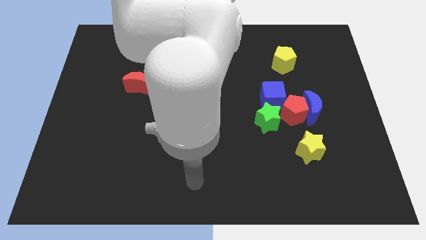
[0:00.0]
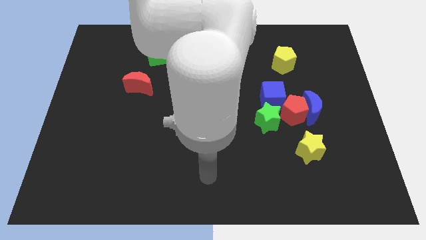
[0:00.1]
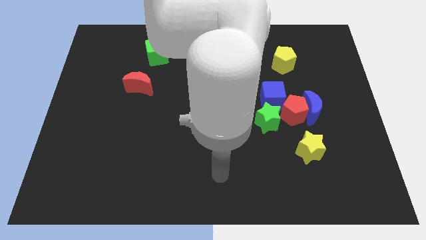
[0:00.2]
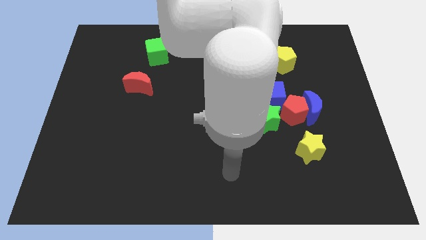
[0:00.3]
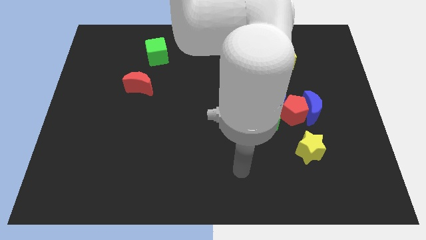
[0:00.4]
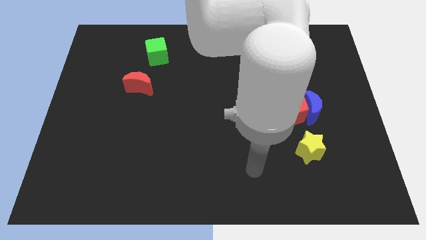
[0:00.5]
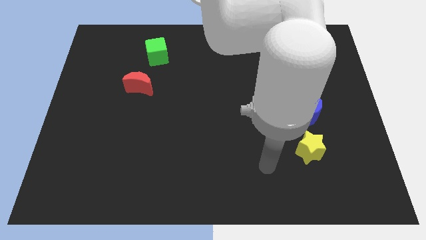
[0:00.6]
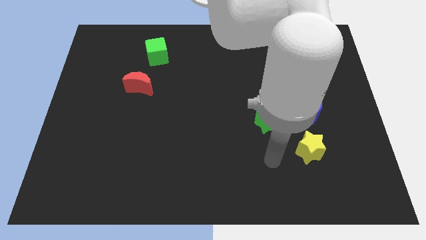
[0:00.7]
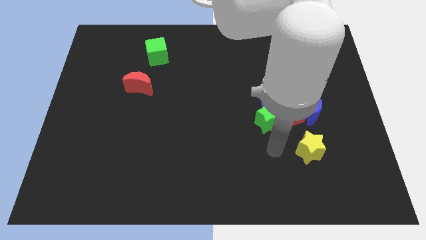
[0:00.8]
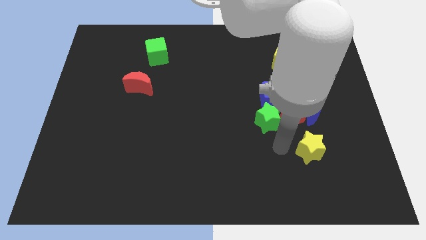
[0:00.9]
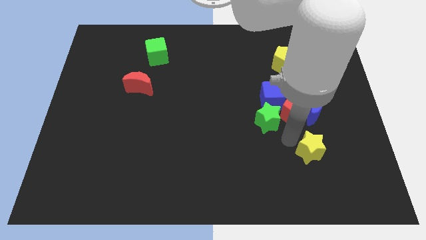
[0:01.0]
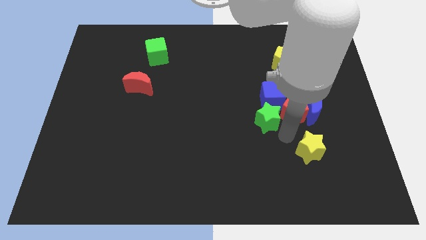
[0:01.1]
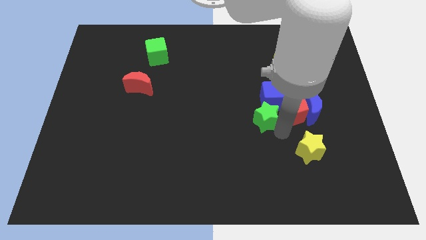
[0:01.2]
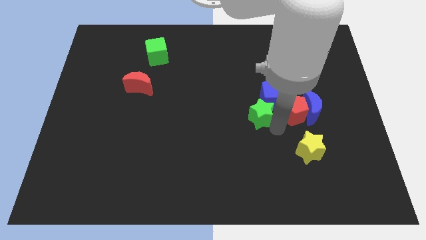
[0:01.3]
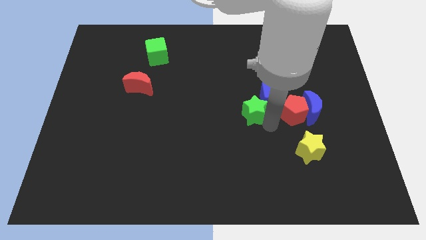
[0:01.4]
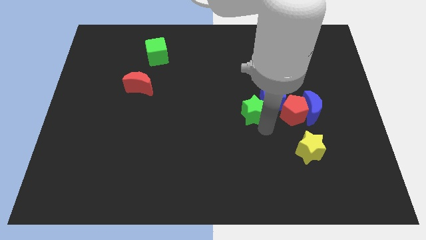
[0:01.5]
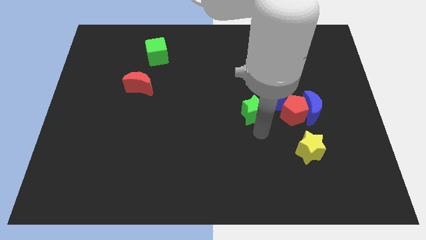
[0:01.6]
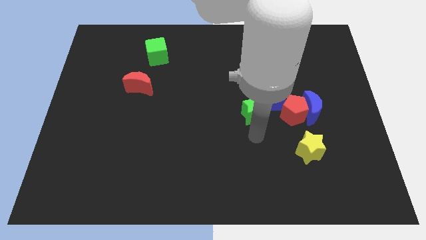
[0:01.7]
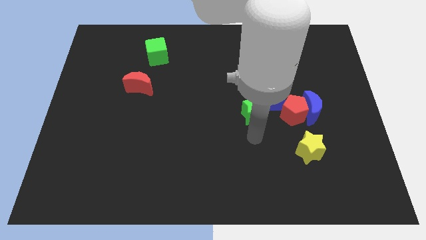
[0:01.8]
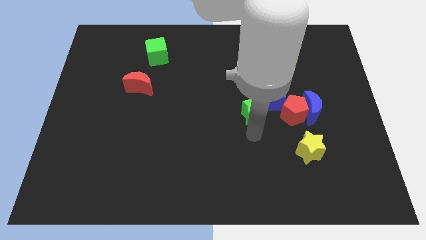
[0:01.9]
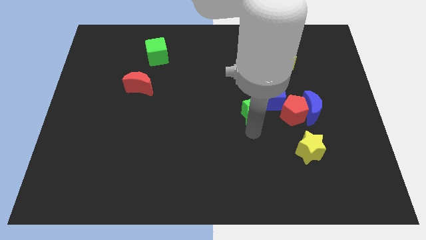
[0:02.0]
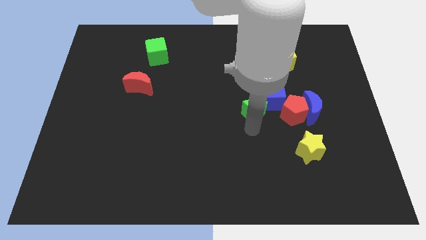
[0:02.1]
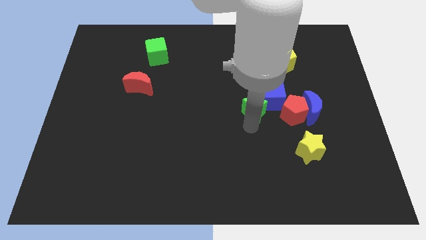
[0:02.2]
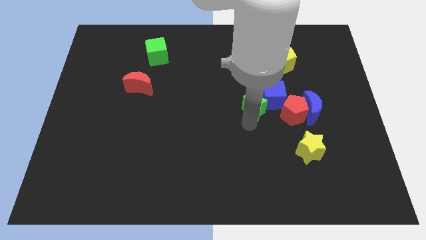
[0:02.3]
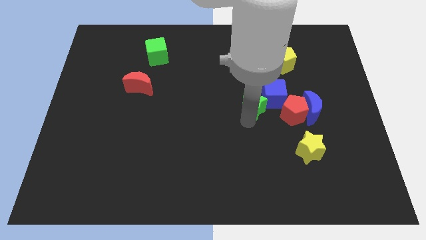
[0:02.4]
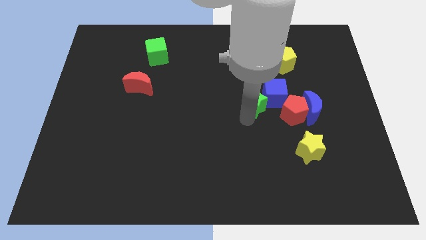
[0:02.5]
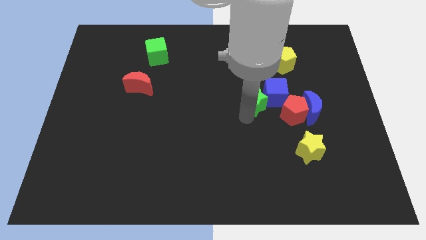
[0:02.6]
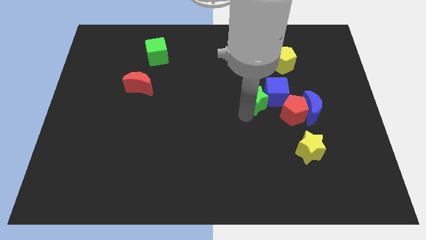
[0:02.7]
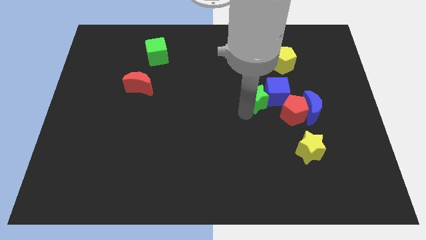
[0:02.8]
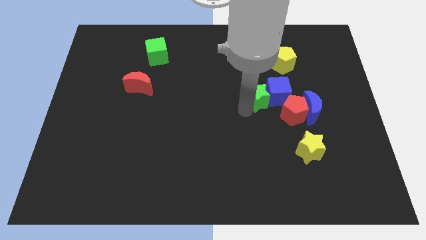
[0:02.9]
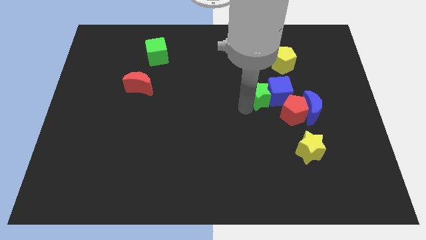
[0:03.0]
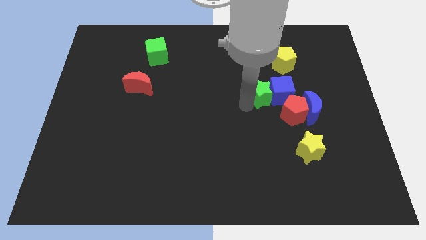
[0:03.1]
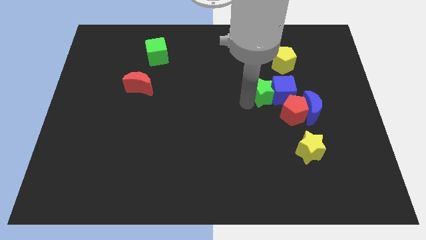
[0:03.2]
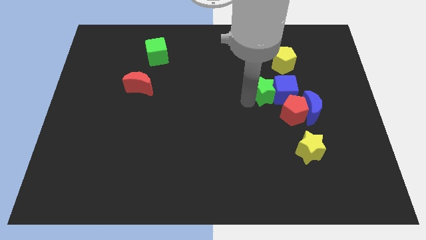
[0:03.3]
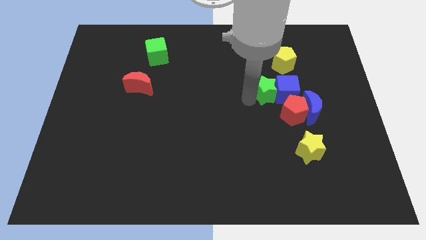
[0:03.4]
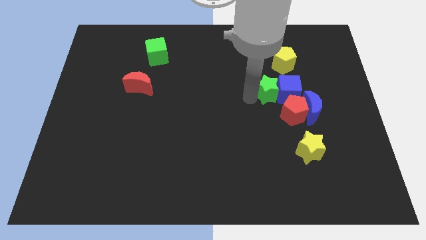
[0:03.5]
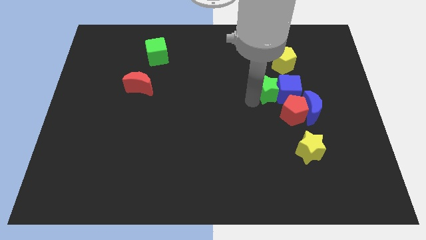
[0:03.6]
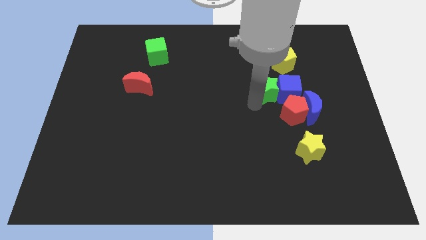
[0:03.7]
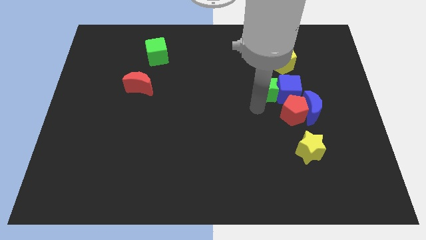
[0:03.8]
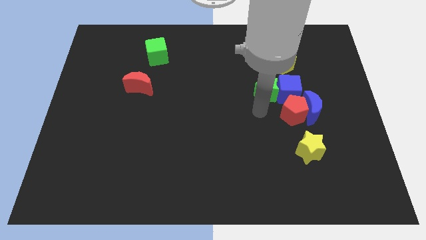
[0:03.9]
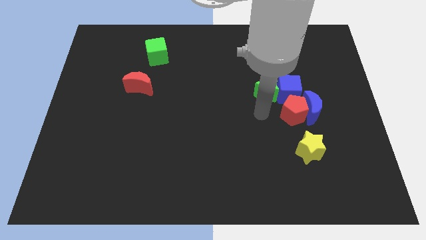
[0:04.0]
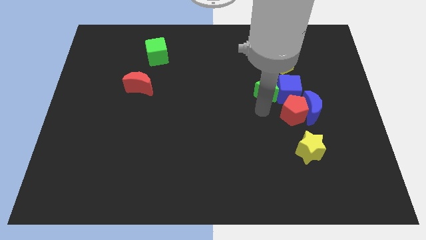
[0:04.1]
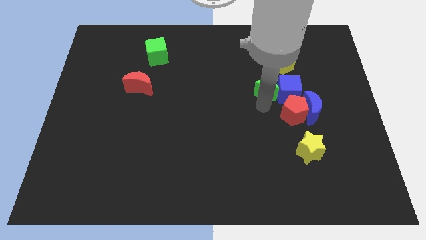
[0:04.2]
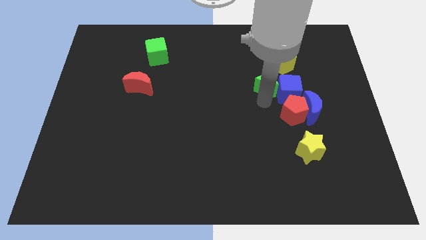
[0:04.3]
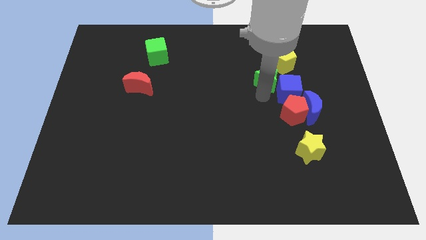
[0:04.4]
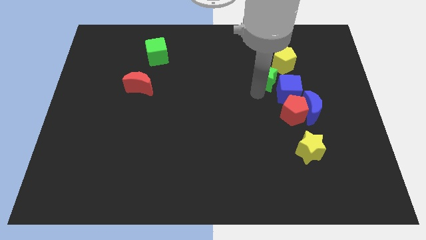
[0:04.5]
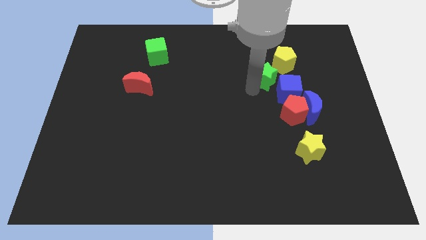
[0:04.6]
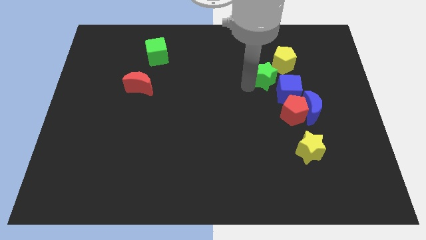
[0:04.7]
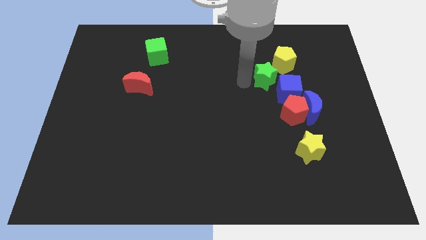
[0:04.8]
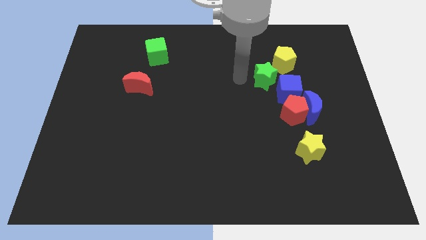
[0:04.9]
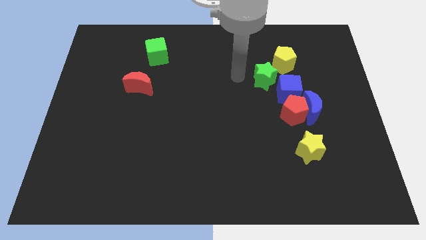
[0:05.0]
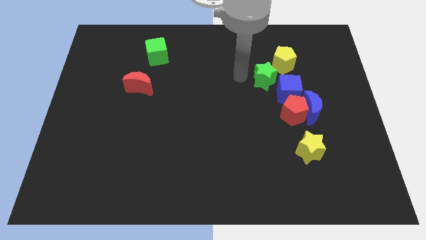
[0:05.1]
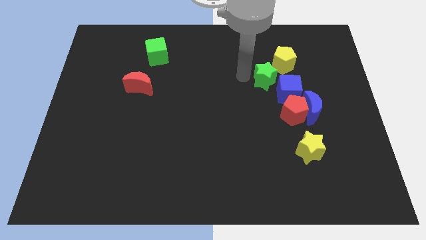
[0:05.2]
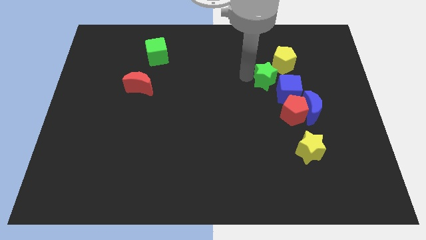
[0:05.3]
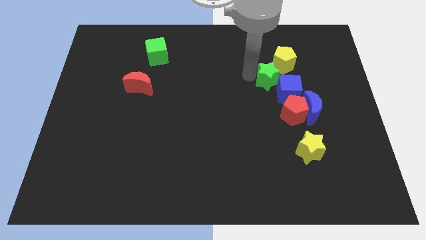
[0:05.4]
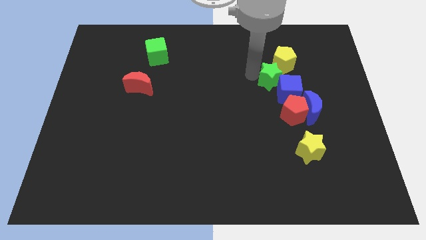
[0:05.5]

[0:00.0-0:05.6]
move the green star a little upwards and right

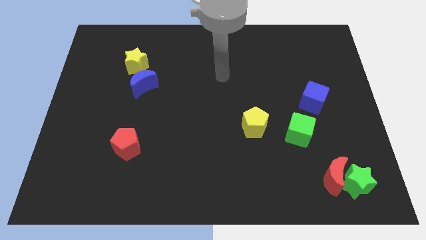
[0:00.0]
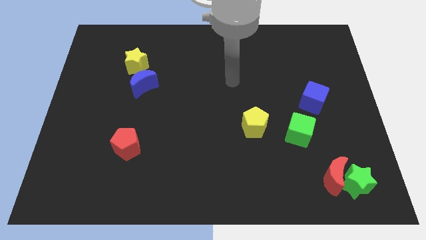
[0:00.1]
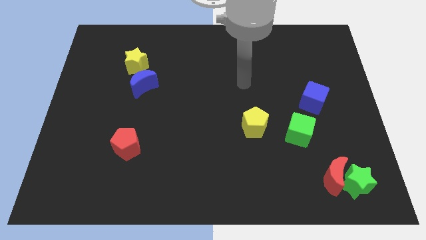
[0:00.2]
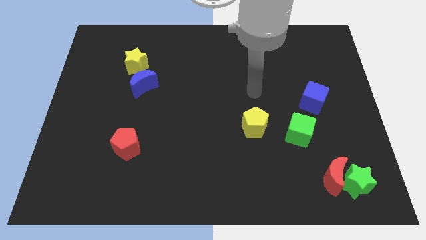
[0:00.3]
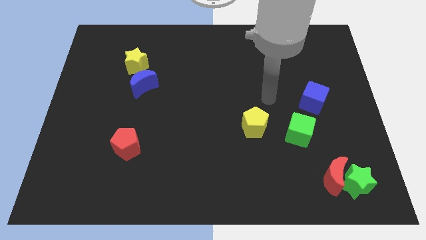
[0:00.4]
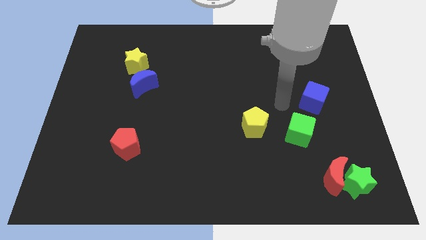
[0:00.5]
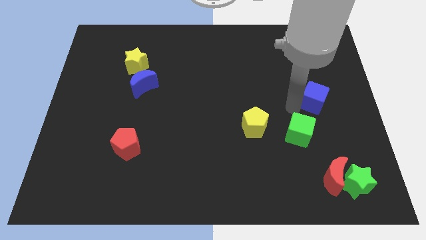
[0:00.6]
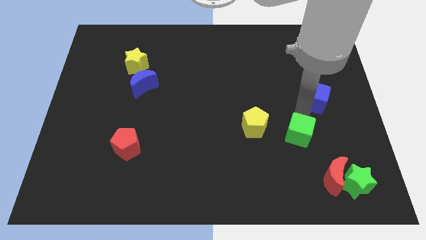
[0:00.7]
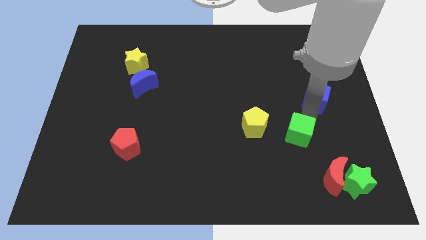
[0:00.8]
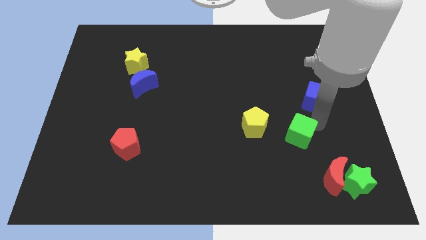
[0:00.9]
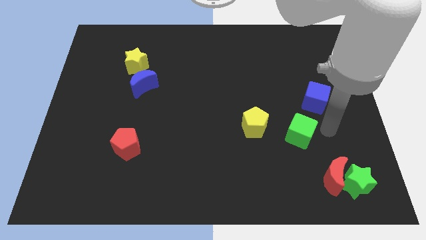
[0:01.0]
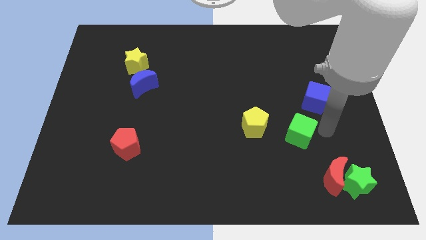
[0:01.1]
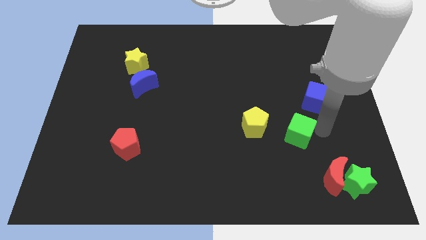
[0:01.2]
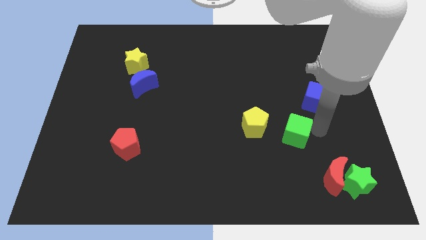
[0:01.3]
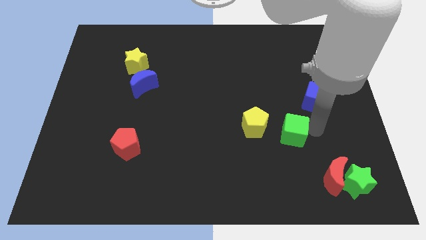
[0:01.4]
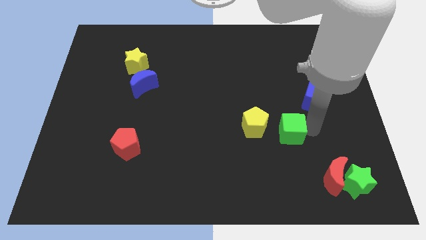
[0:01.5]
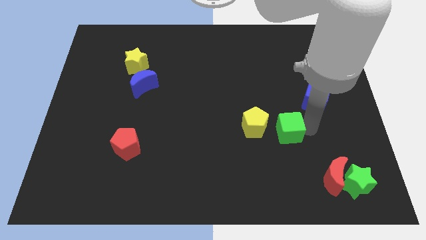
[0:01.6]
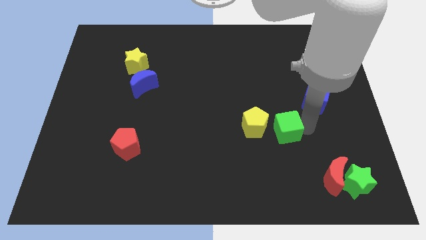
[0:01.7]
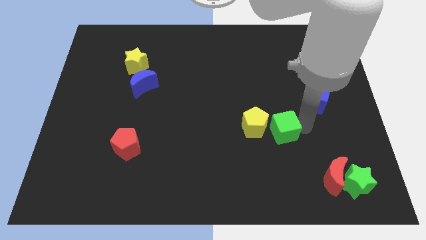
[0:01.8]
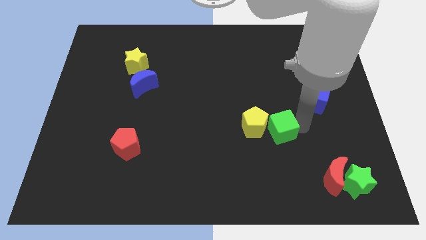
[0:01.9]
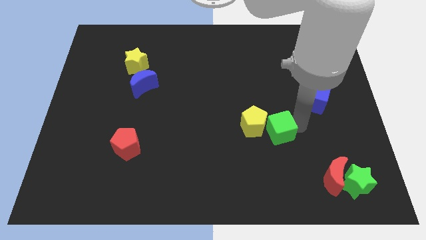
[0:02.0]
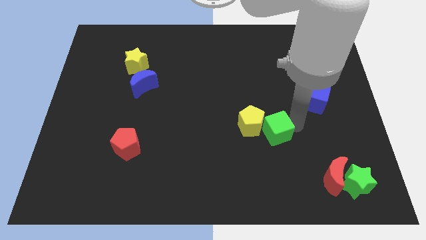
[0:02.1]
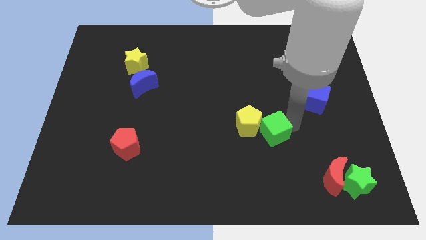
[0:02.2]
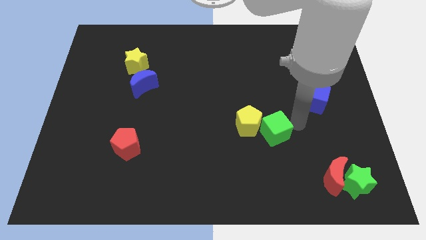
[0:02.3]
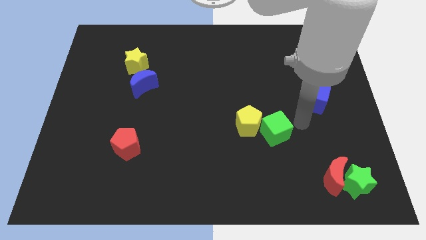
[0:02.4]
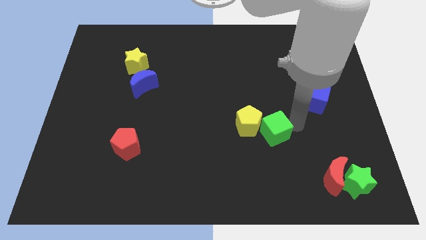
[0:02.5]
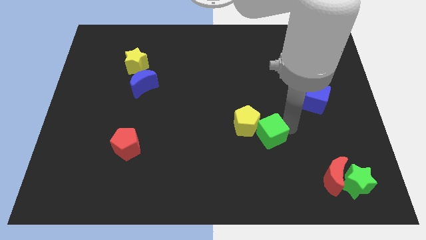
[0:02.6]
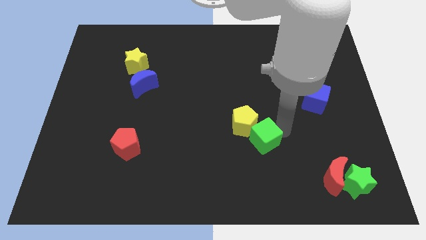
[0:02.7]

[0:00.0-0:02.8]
slightly slide the green cube left
